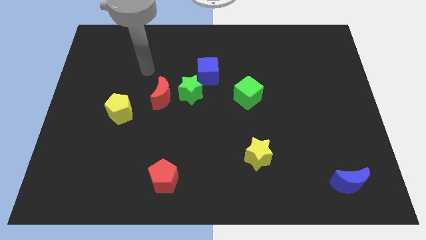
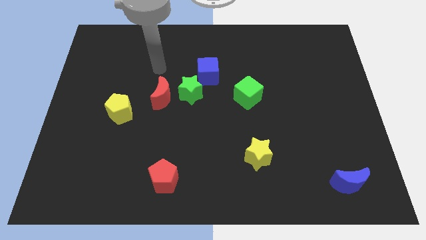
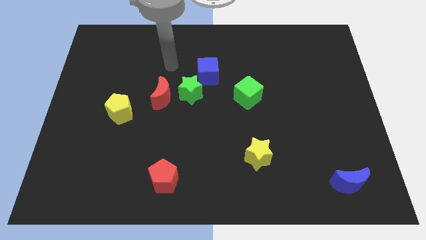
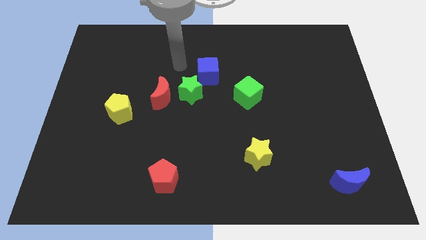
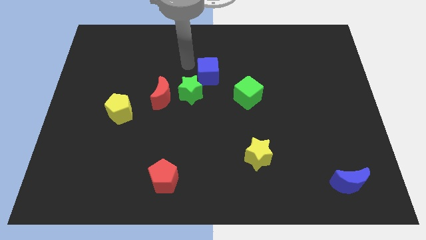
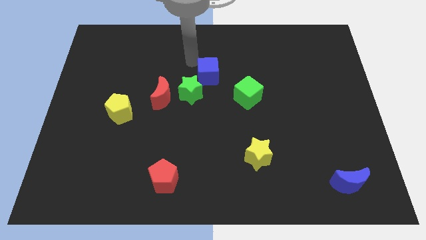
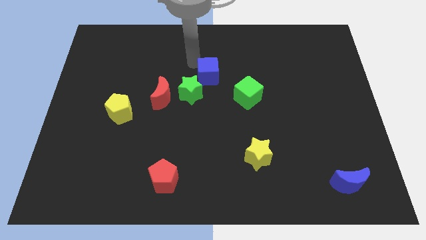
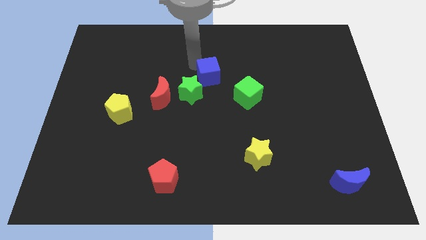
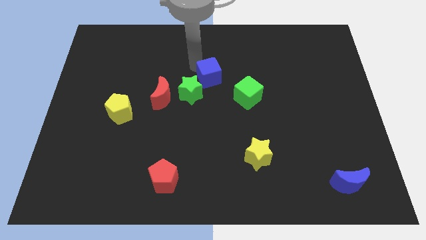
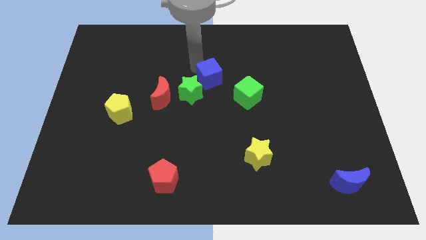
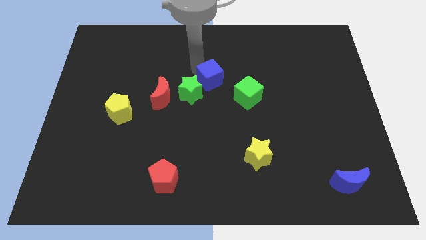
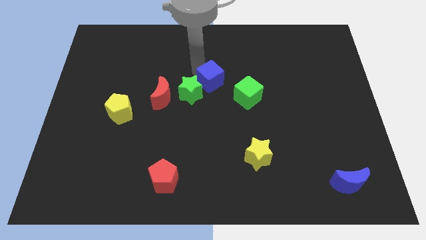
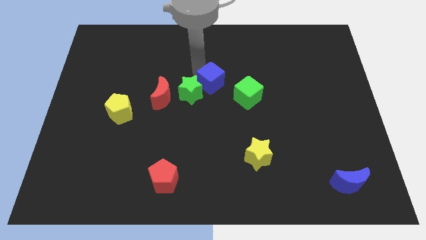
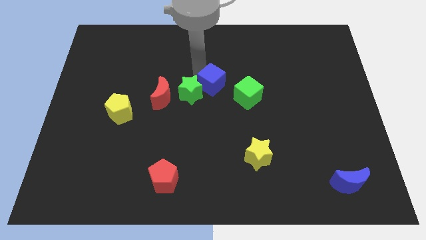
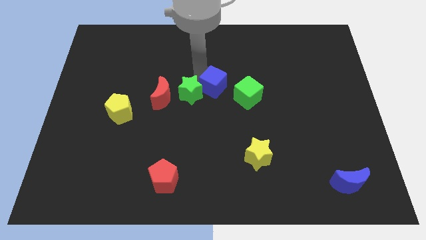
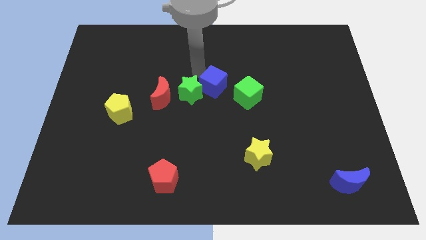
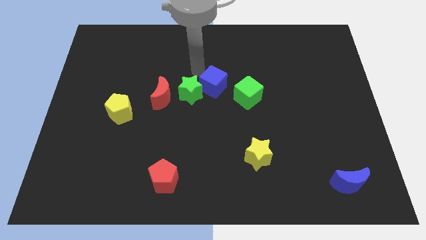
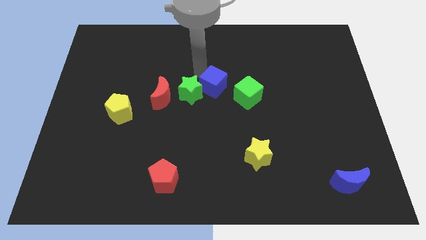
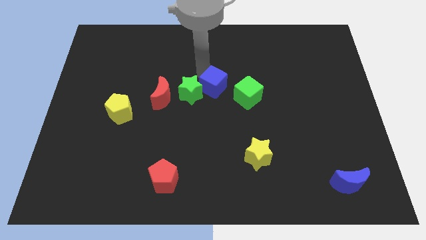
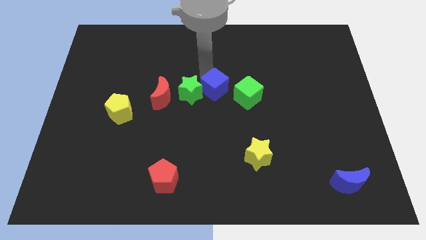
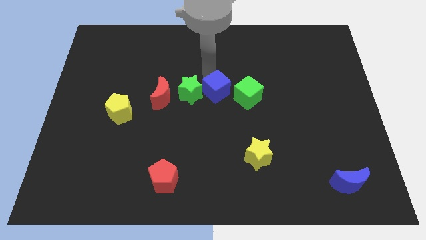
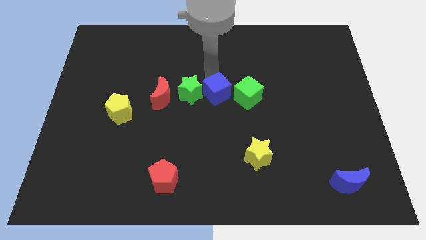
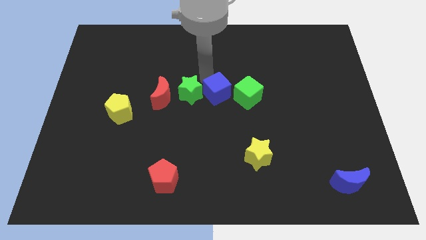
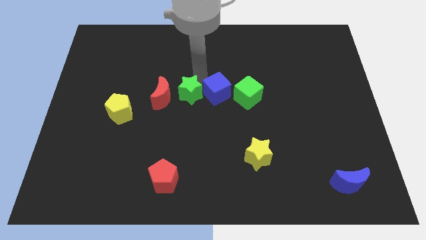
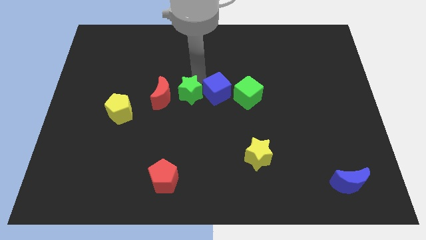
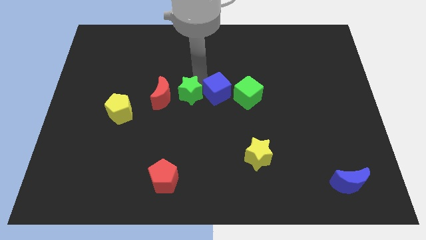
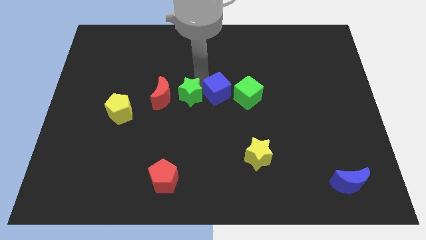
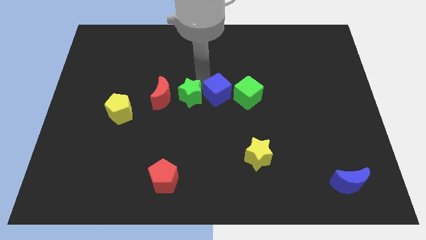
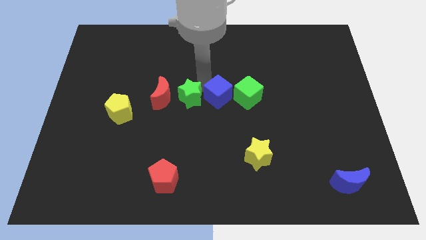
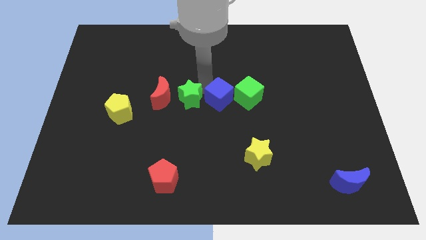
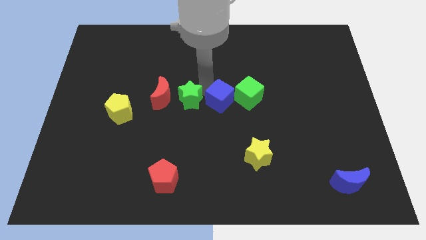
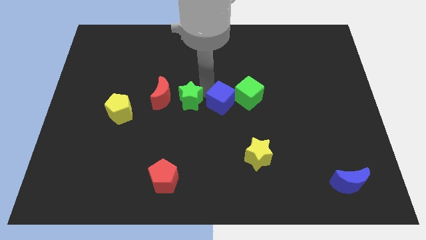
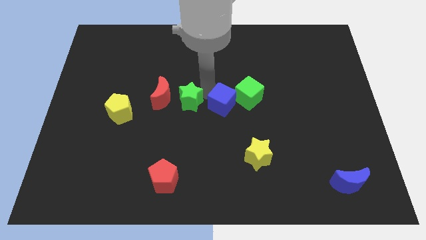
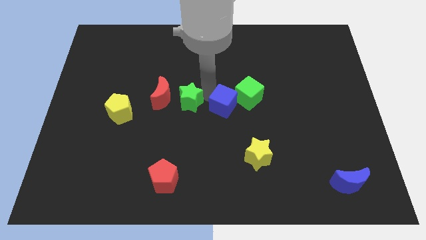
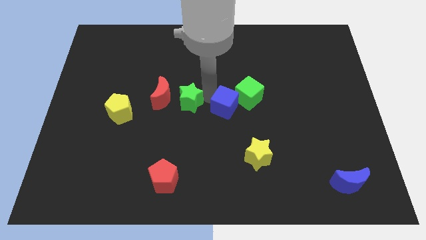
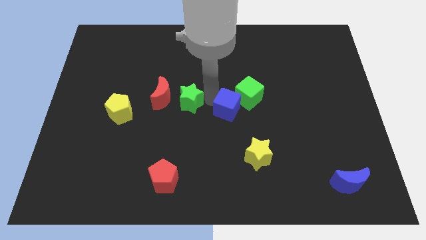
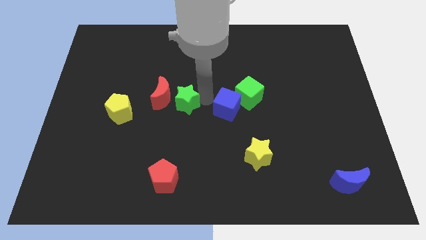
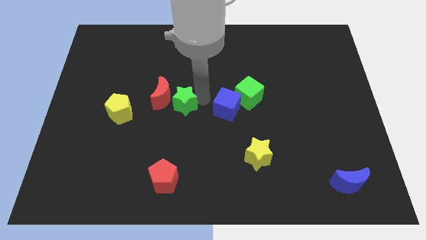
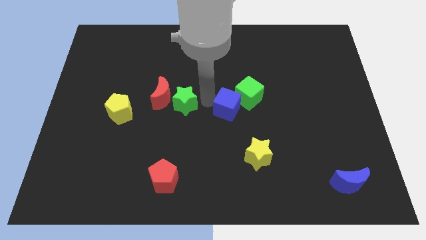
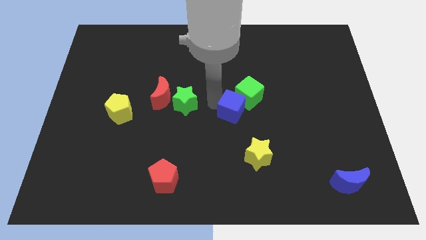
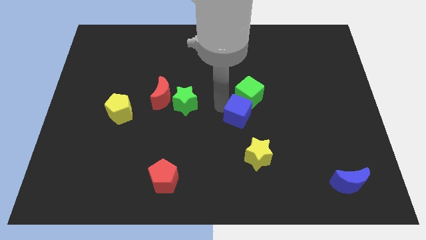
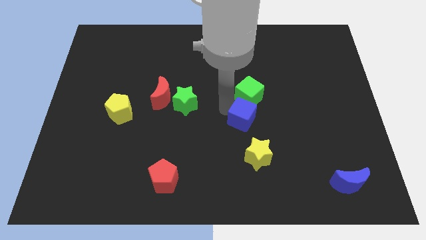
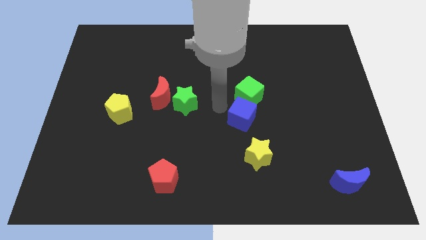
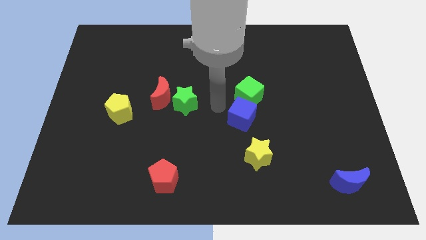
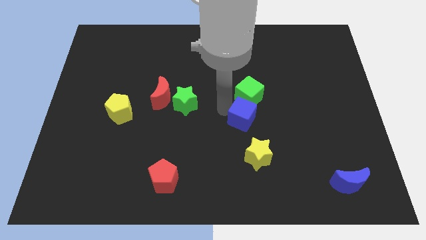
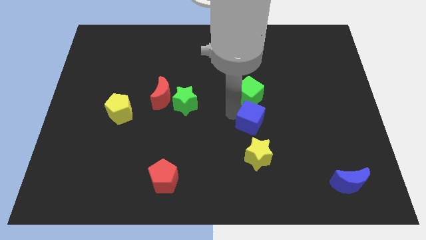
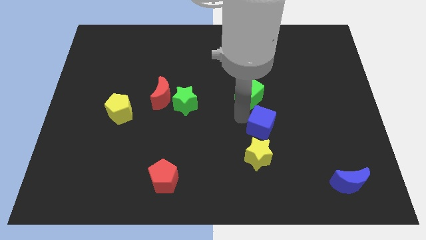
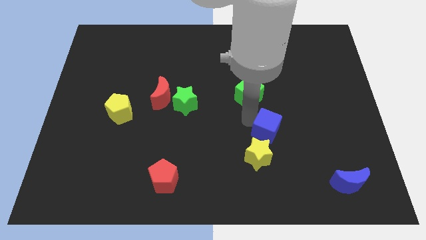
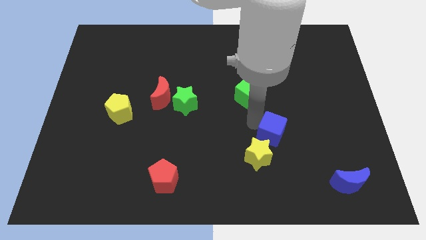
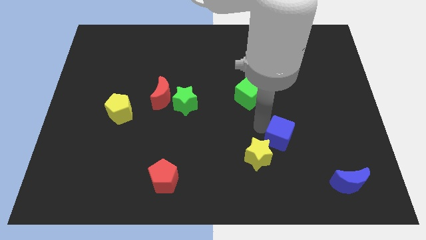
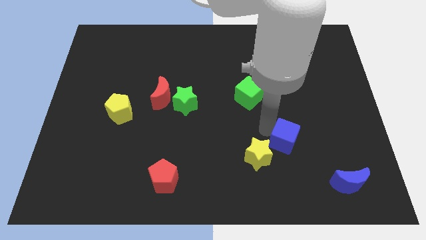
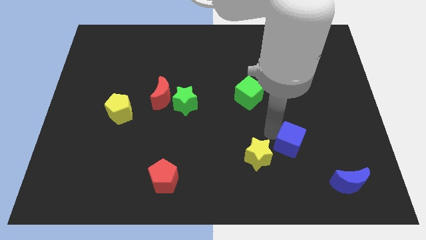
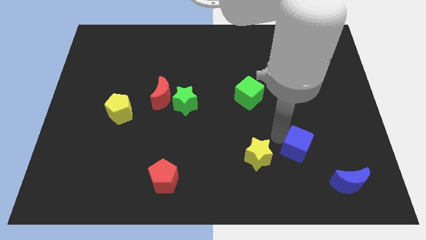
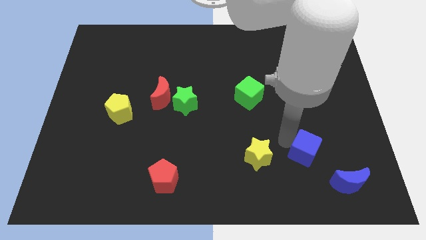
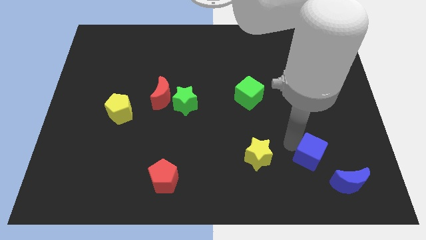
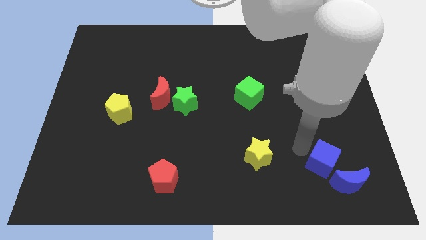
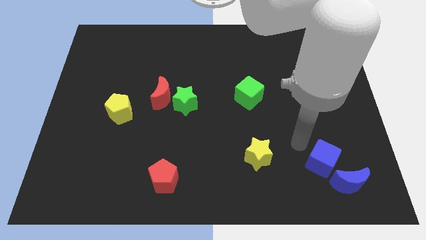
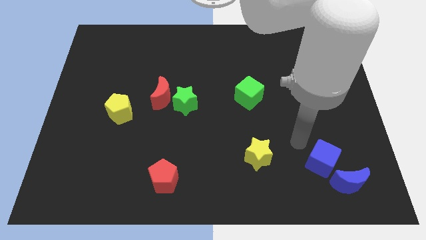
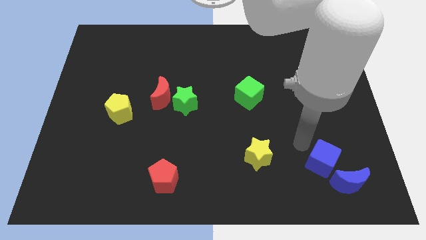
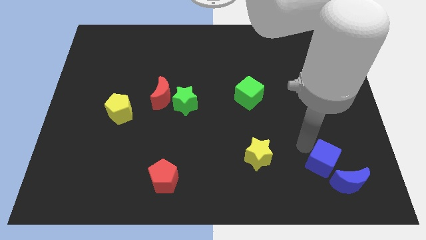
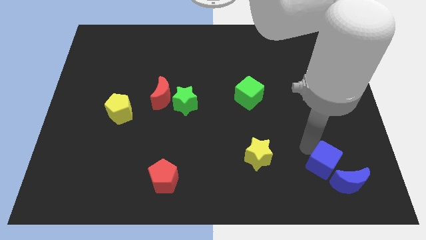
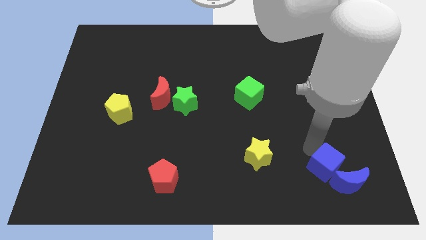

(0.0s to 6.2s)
put the blue cube towards the blue moon

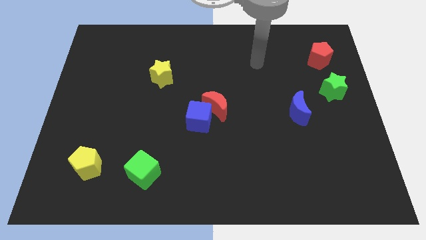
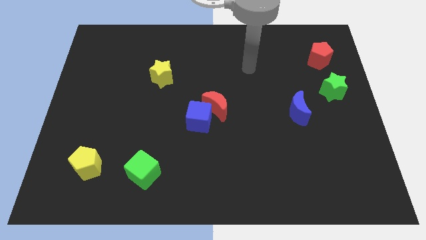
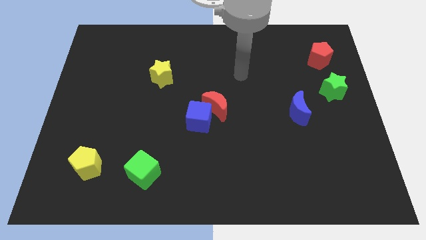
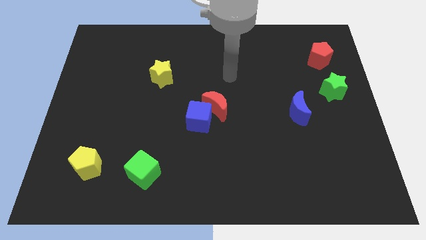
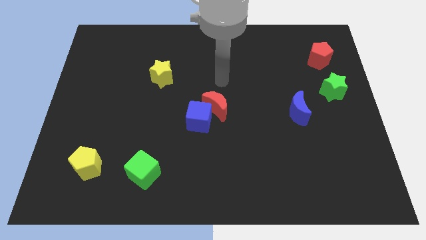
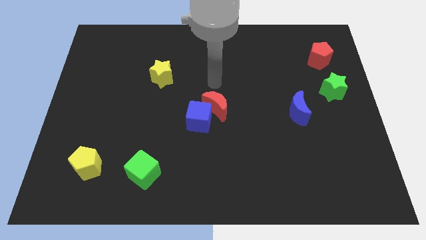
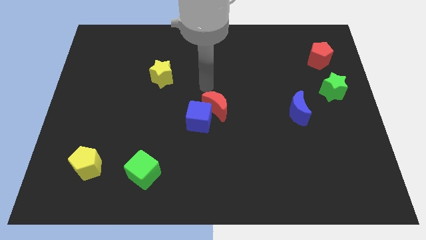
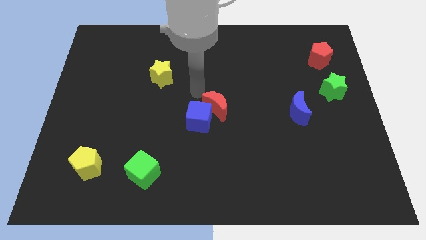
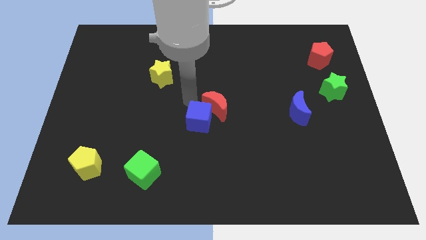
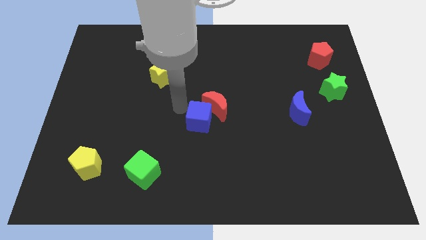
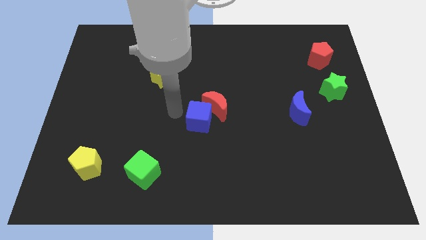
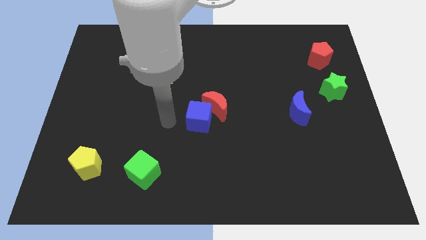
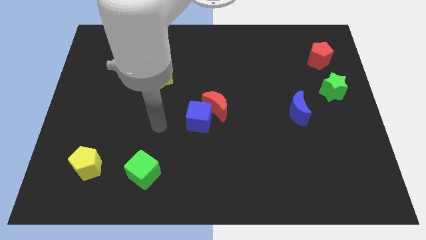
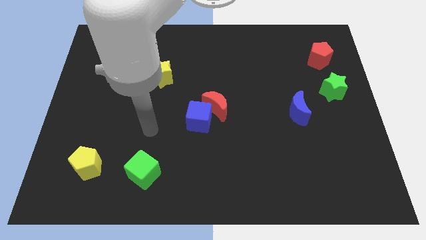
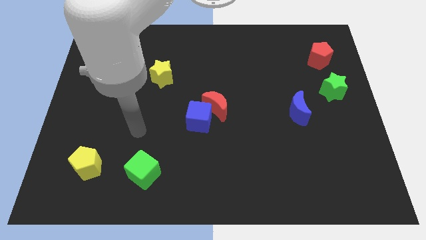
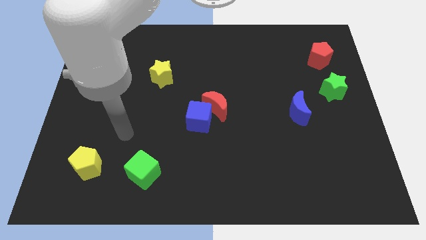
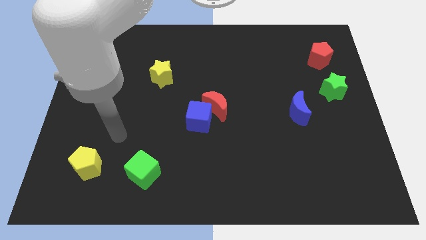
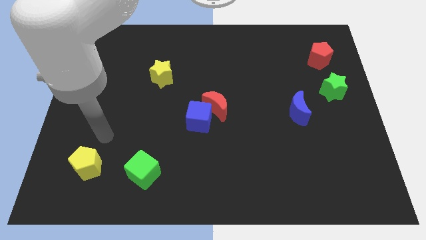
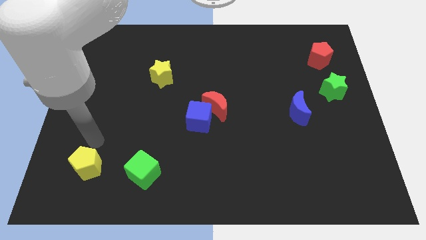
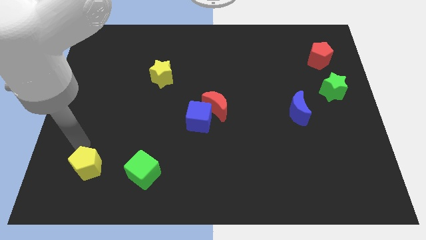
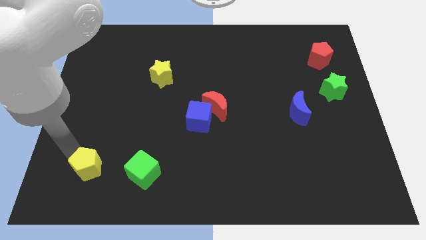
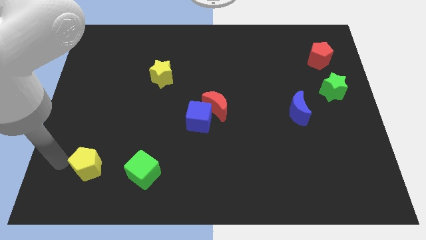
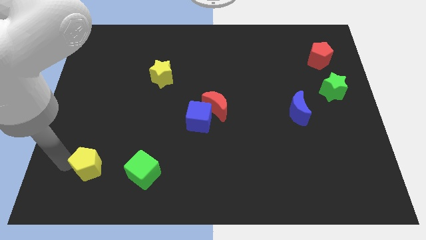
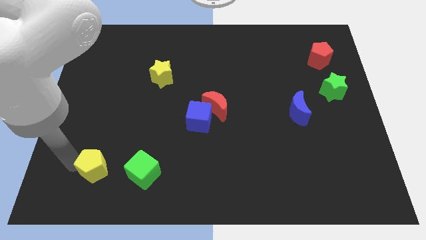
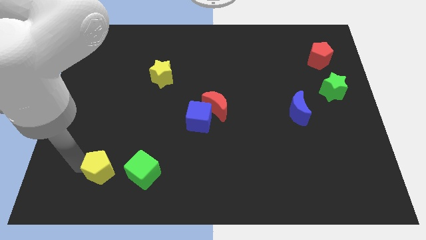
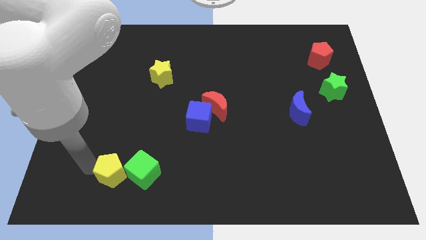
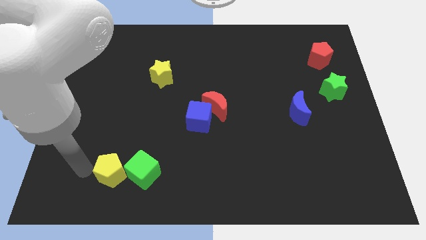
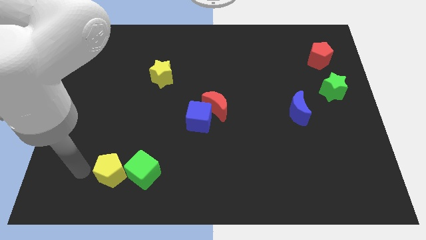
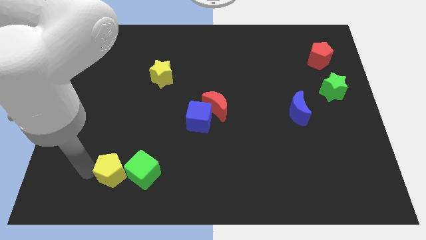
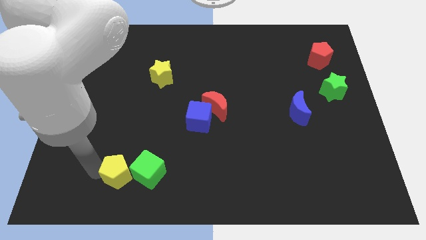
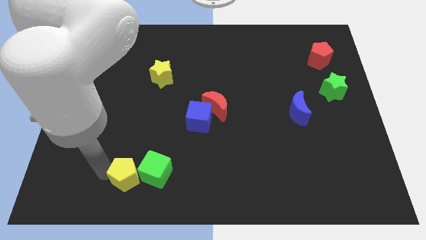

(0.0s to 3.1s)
move the yellow pentagon to the green cube
